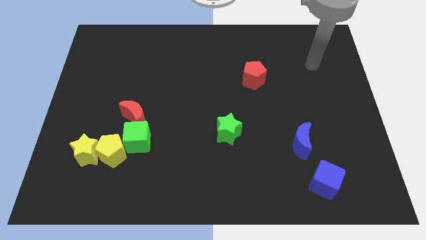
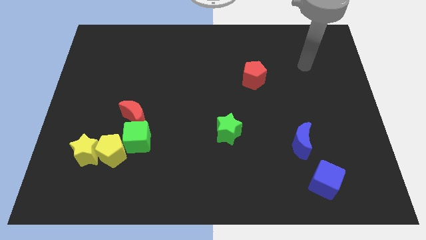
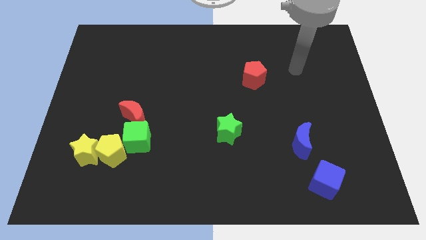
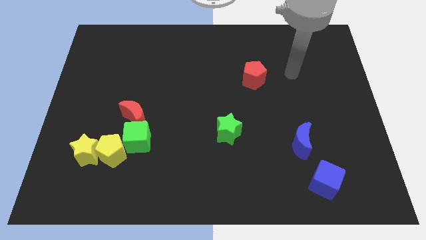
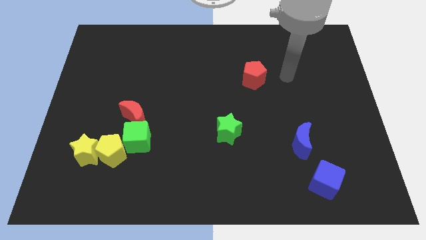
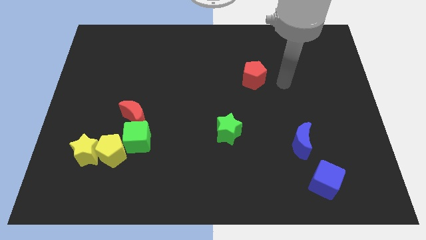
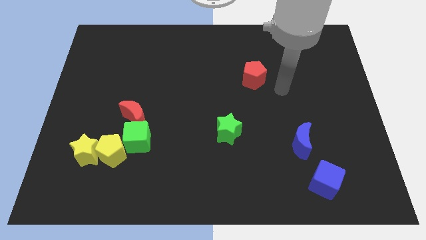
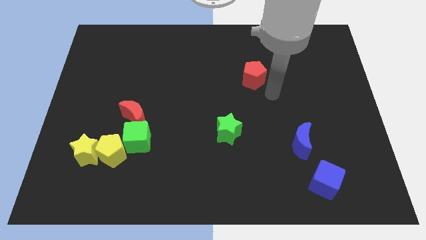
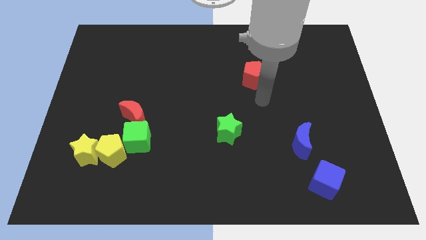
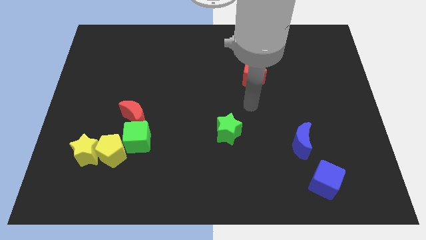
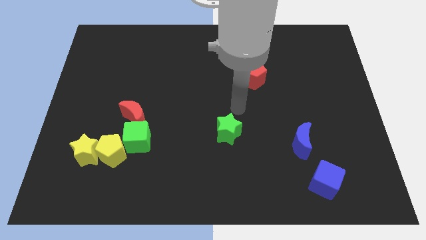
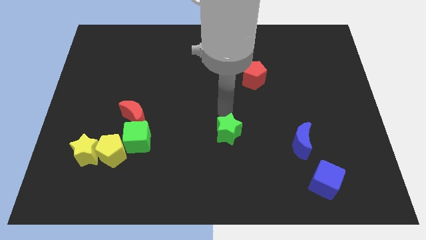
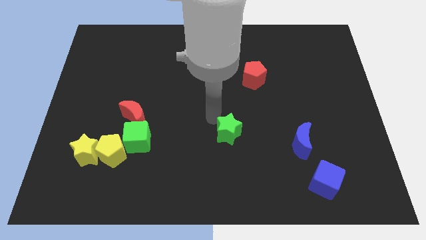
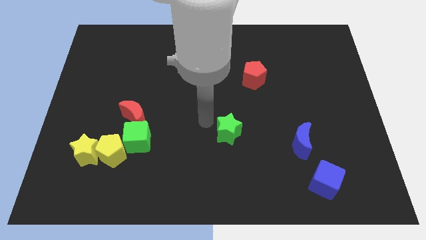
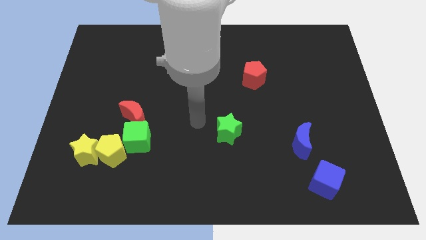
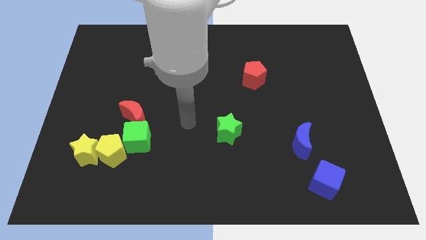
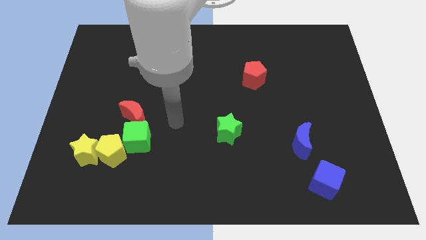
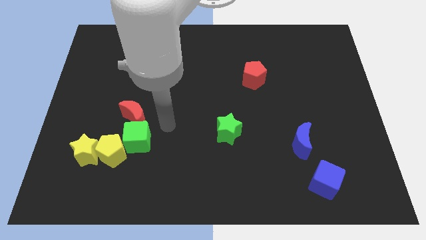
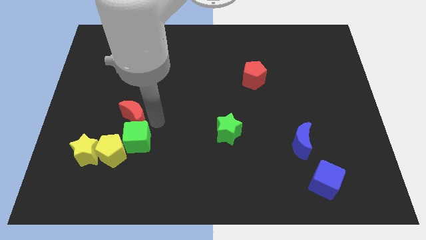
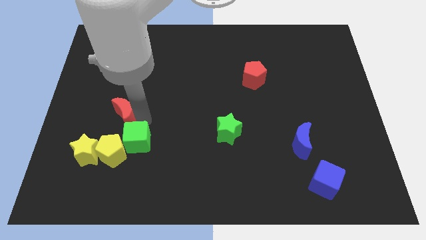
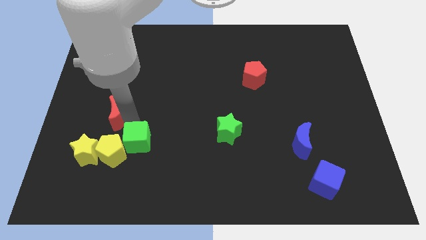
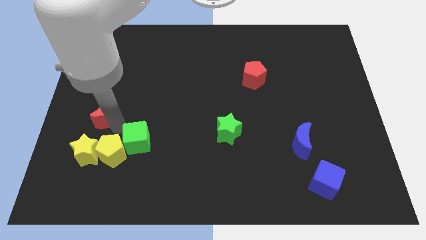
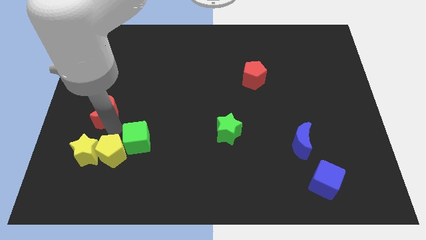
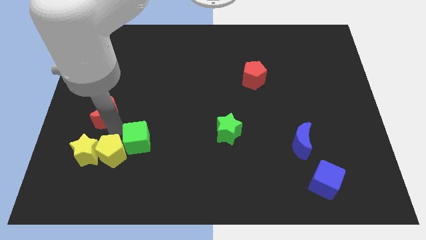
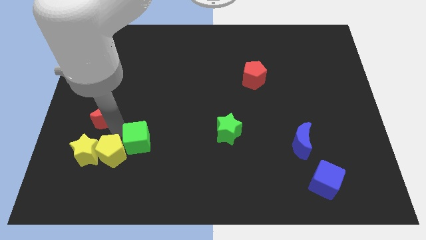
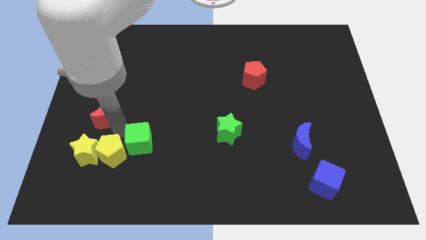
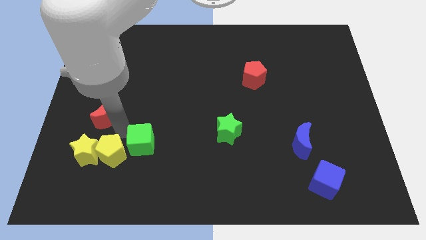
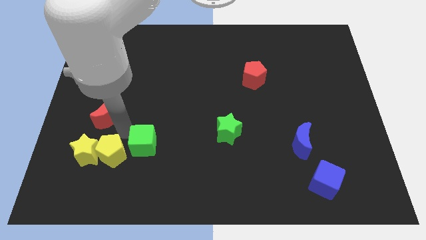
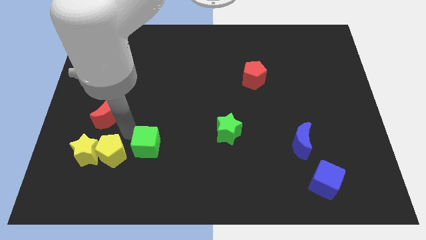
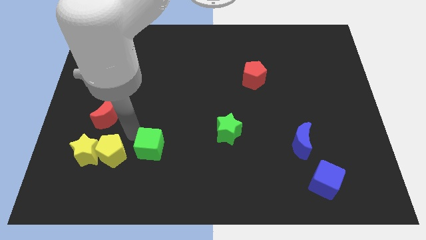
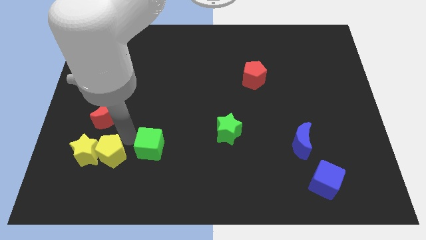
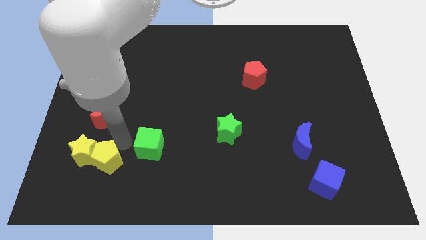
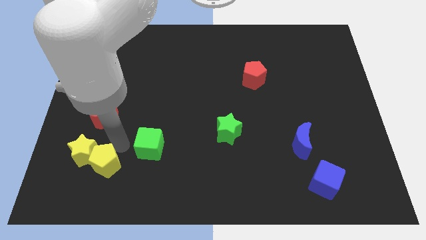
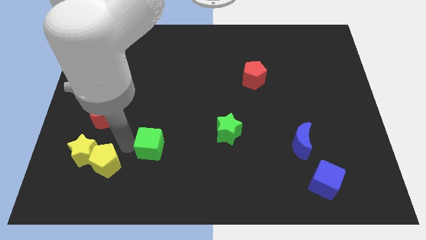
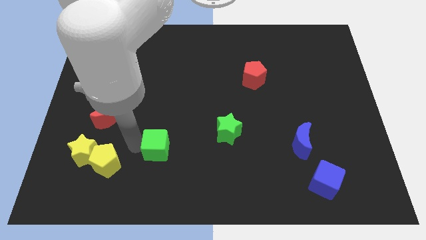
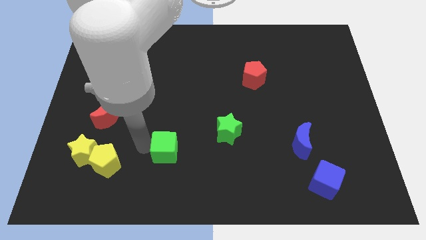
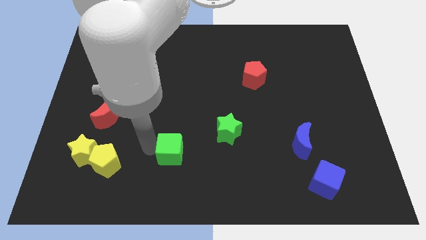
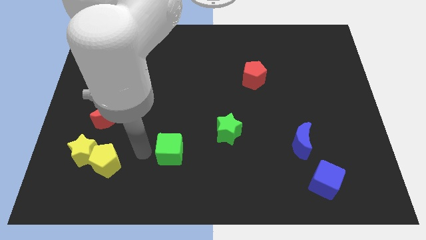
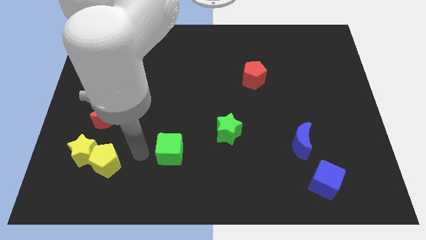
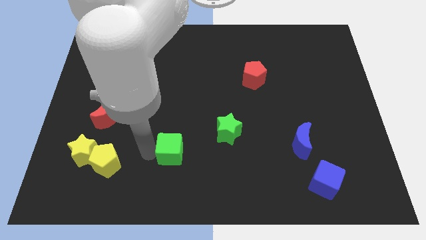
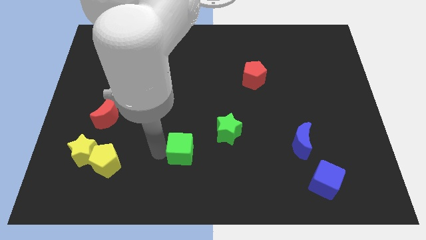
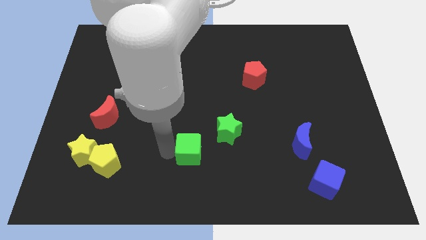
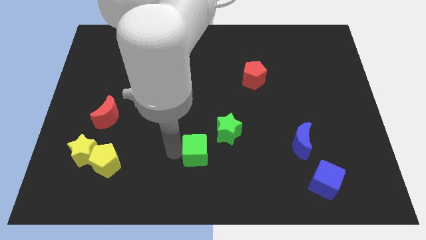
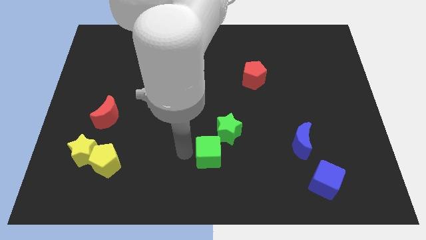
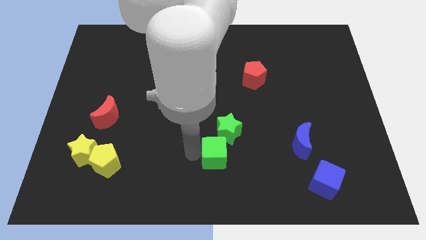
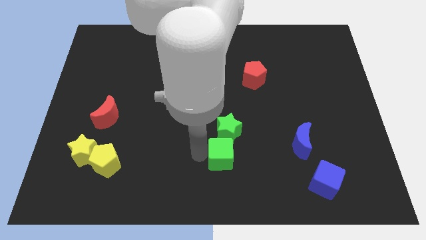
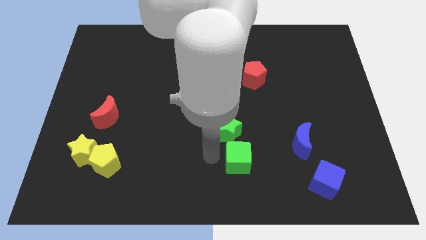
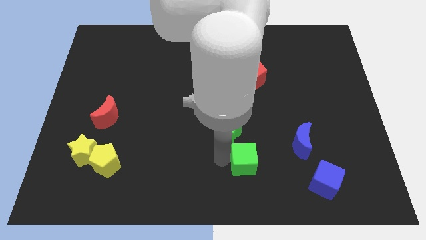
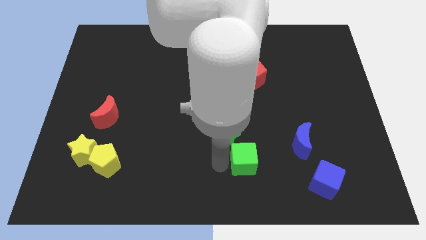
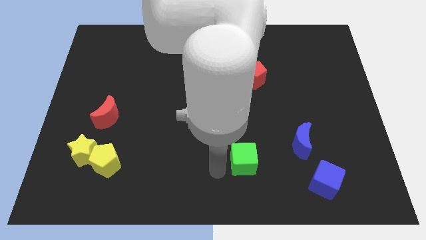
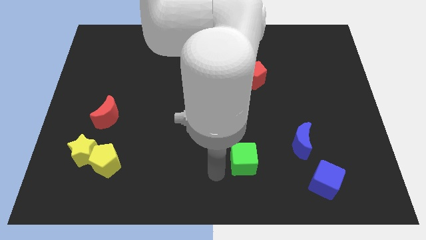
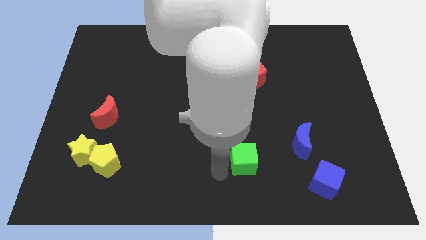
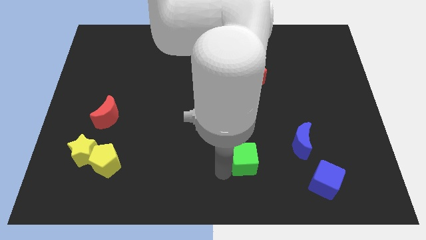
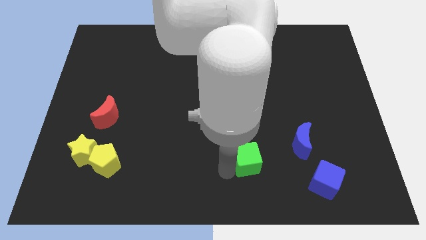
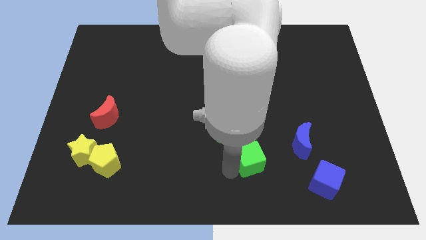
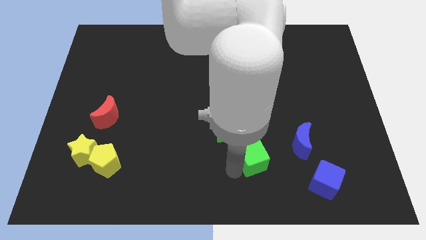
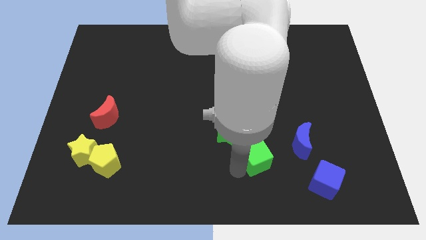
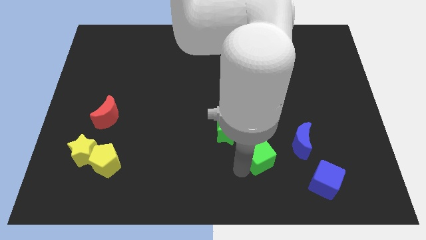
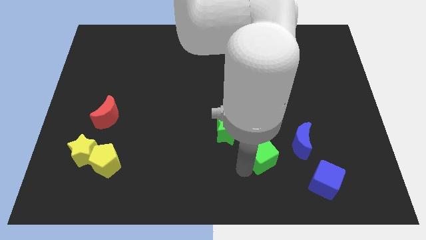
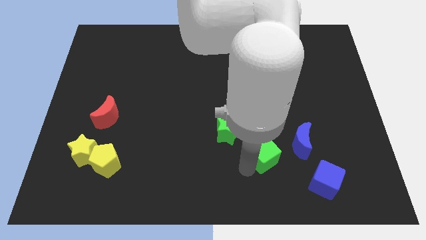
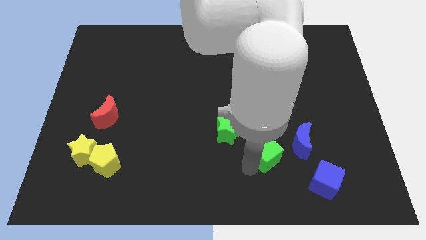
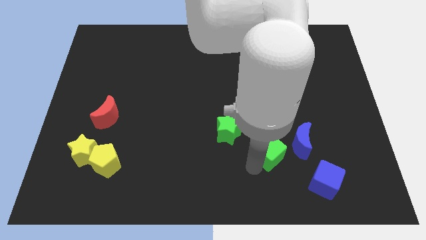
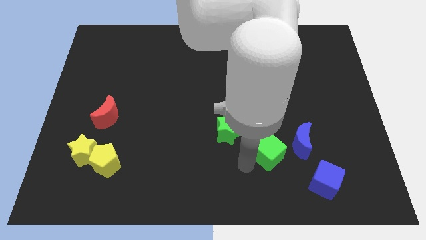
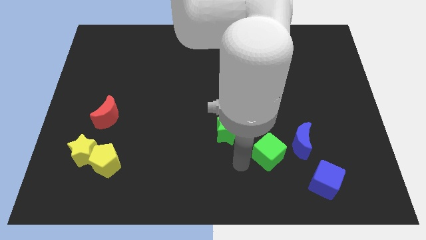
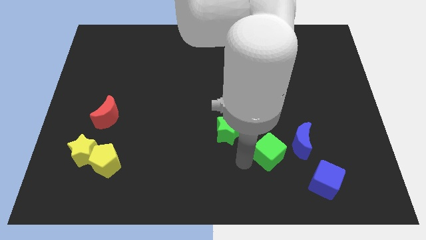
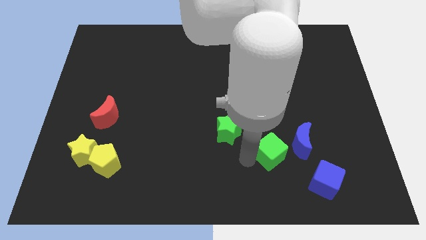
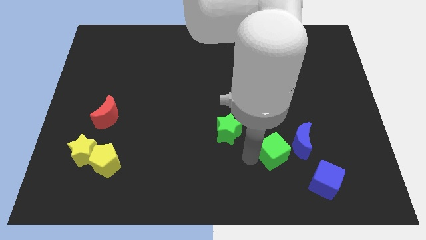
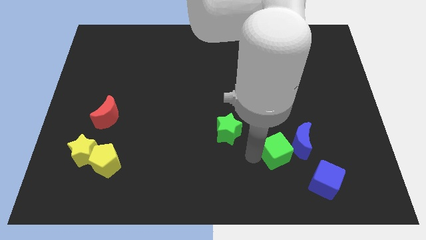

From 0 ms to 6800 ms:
put the green cube next to the blue moon

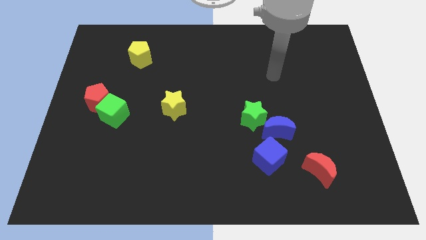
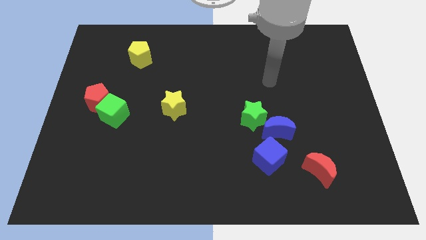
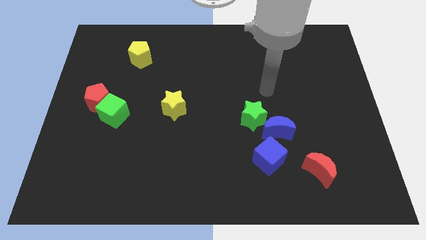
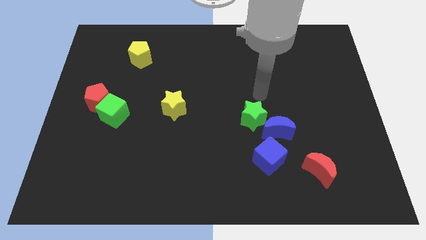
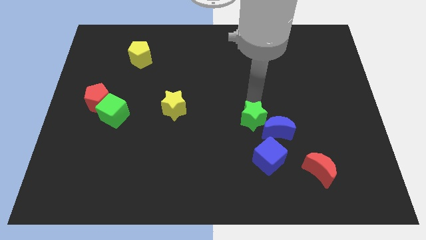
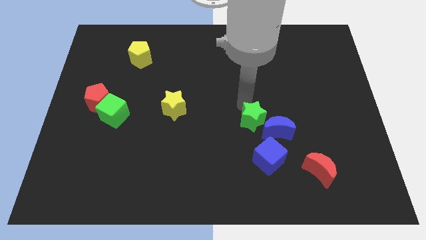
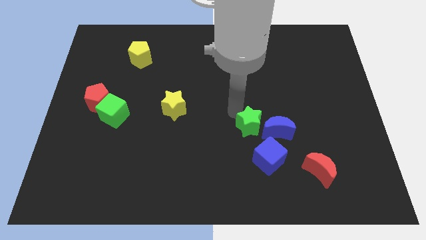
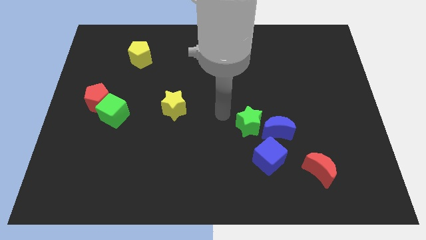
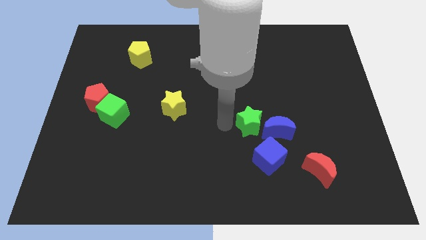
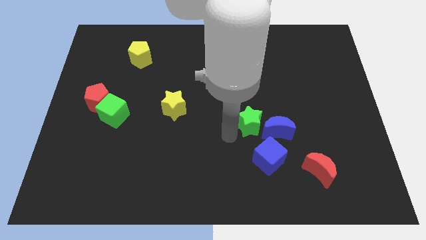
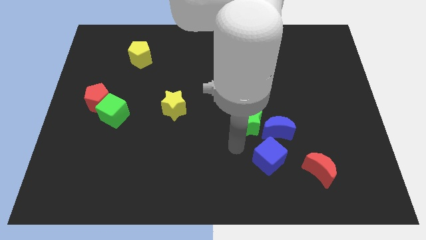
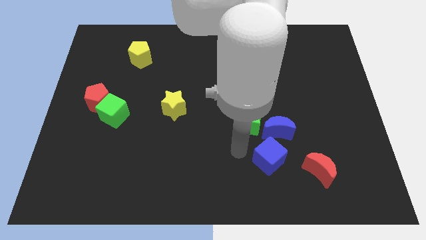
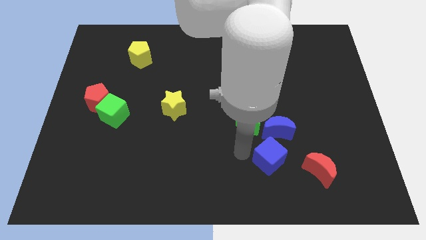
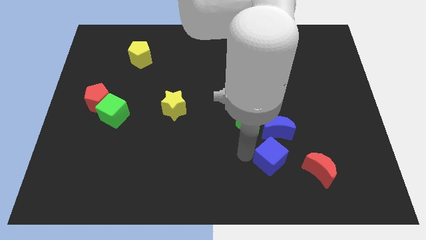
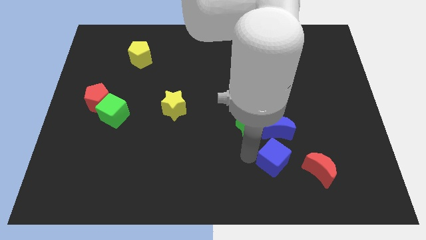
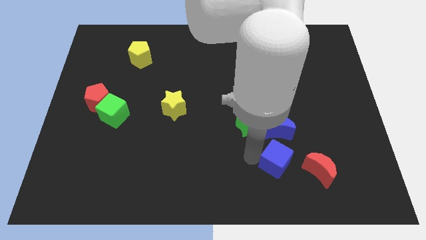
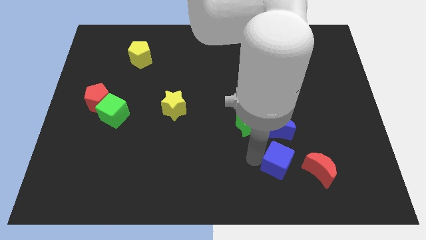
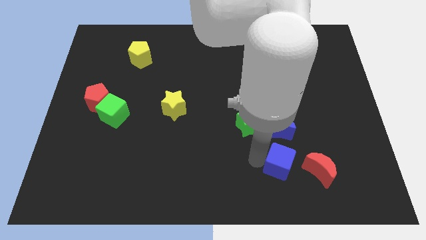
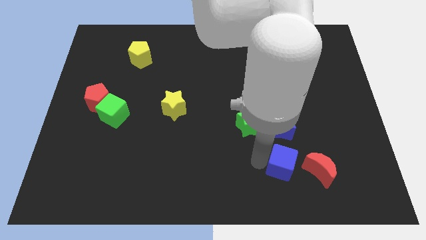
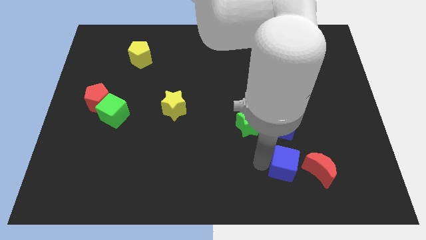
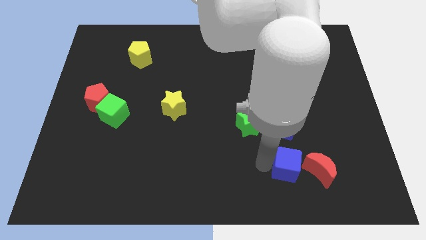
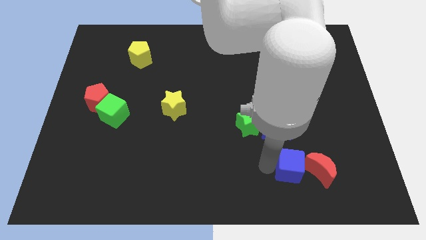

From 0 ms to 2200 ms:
move the blue cube towards the red moon
